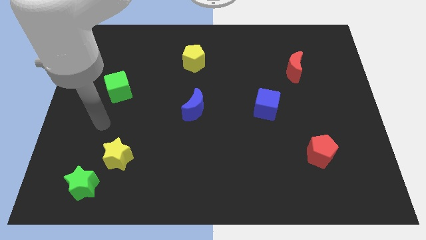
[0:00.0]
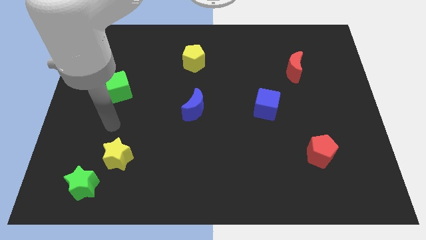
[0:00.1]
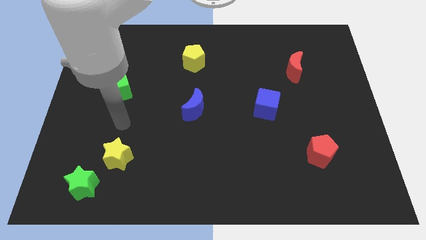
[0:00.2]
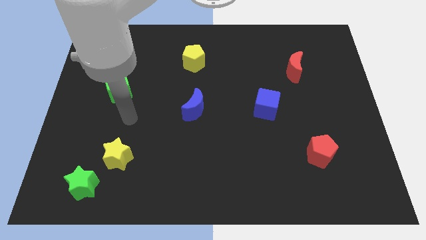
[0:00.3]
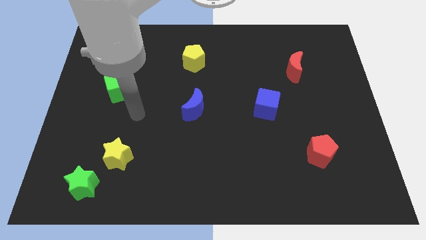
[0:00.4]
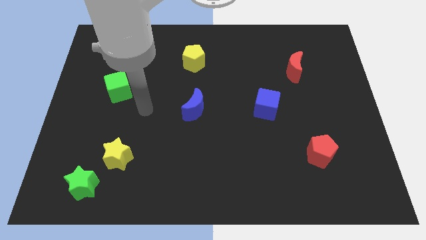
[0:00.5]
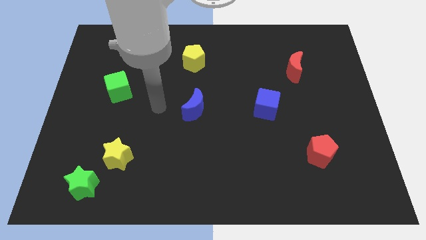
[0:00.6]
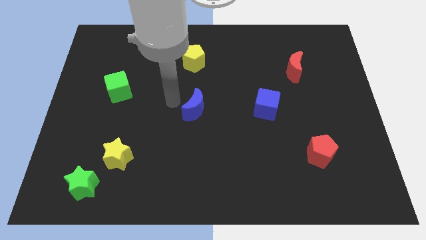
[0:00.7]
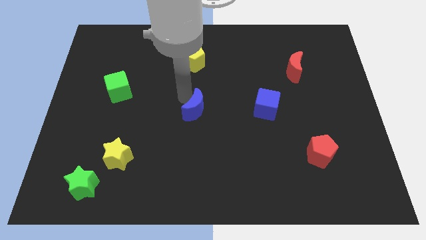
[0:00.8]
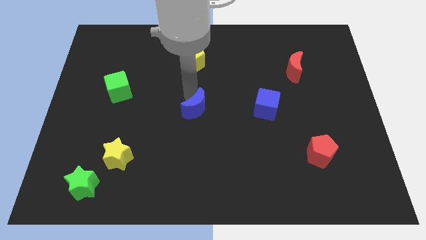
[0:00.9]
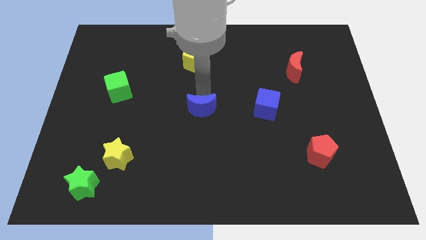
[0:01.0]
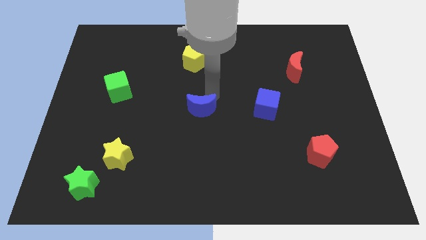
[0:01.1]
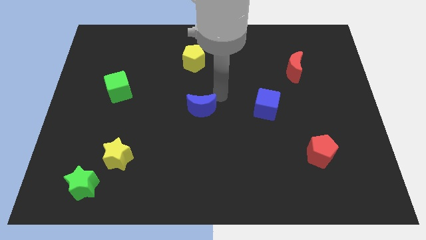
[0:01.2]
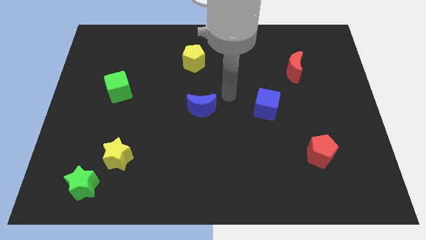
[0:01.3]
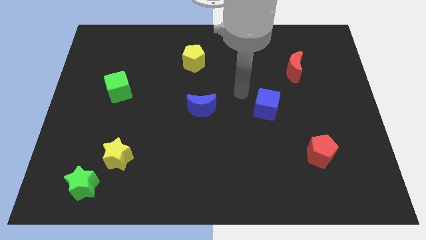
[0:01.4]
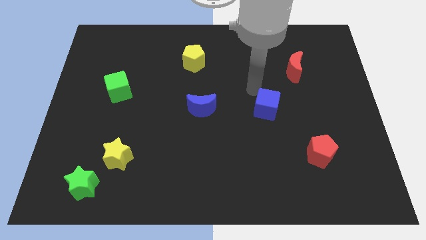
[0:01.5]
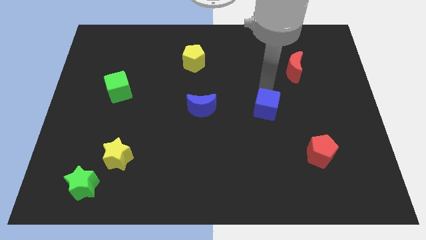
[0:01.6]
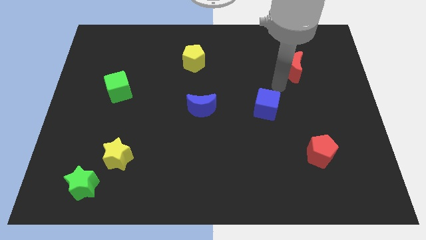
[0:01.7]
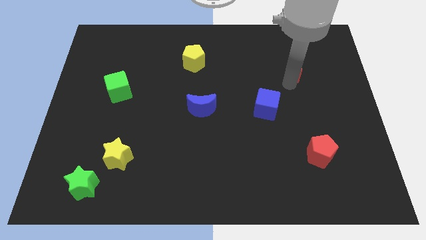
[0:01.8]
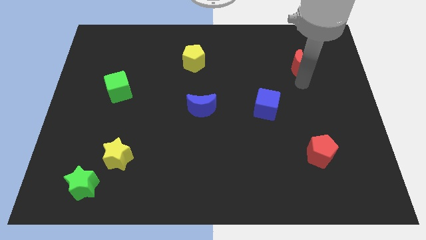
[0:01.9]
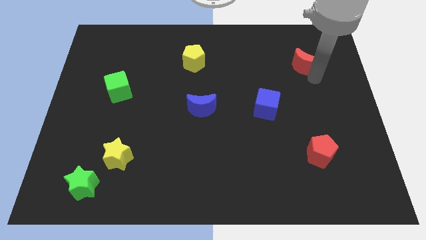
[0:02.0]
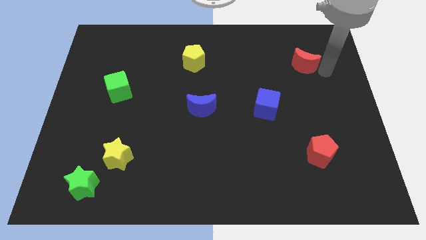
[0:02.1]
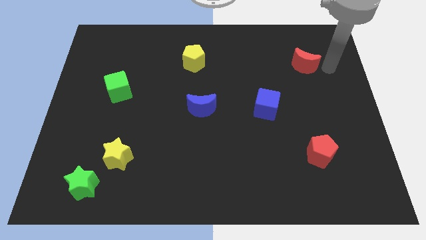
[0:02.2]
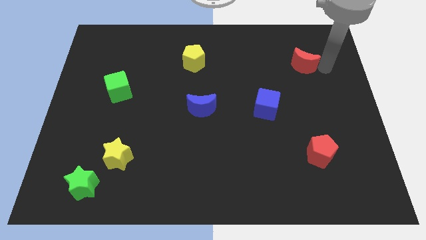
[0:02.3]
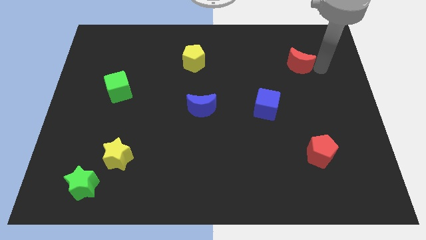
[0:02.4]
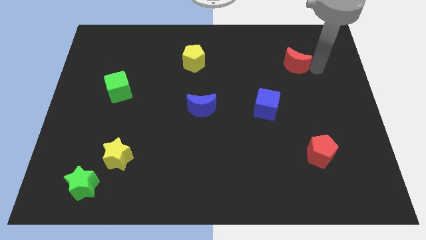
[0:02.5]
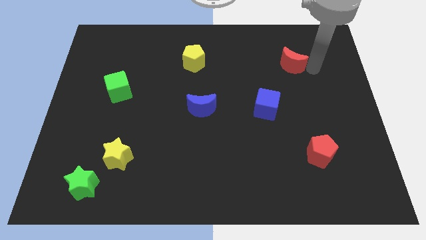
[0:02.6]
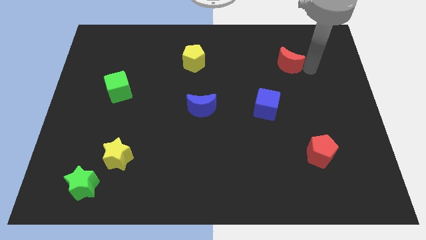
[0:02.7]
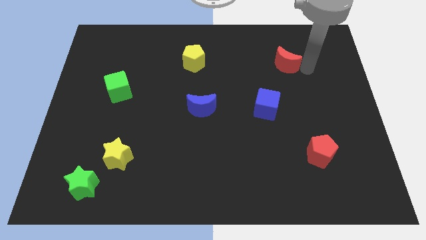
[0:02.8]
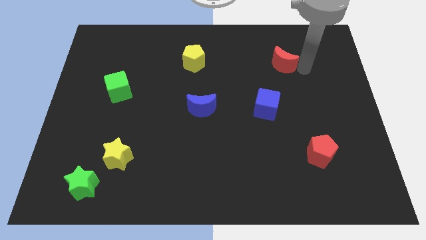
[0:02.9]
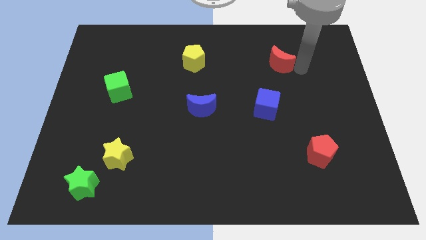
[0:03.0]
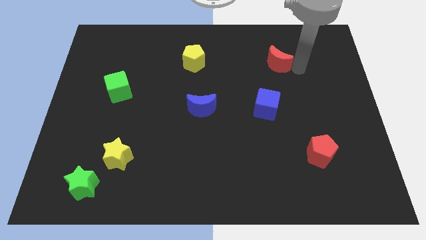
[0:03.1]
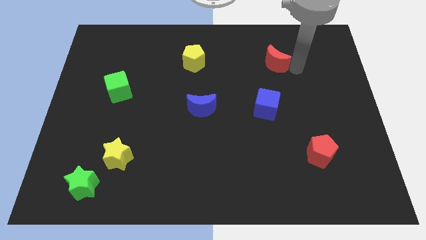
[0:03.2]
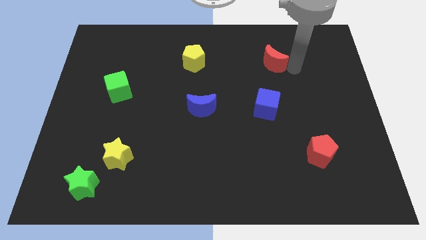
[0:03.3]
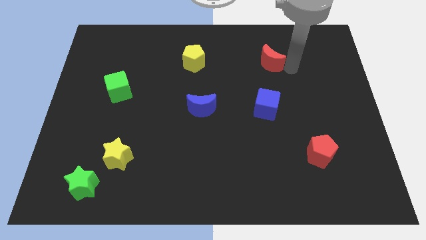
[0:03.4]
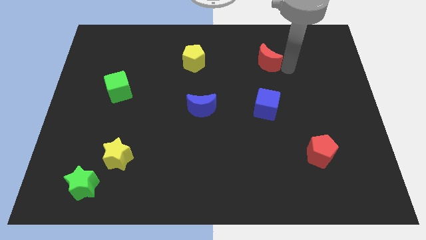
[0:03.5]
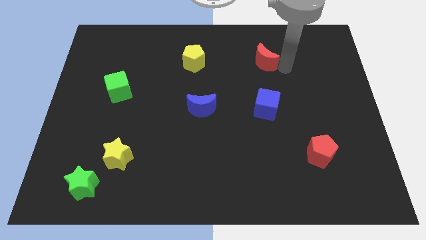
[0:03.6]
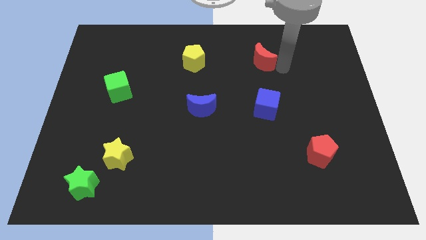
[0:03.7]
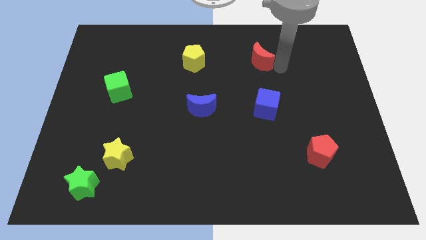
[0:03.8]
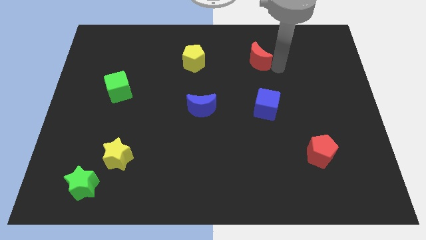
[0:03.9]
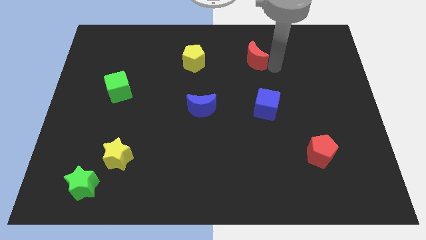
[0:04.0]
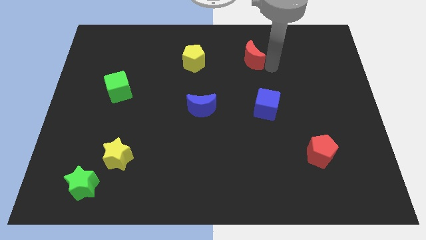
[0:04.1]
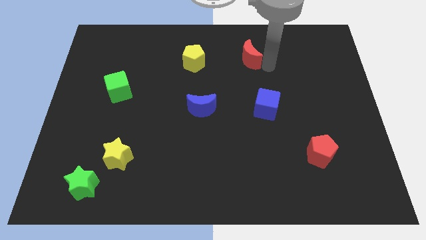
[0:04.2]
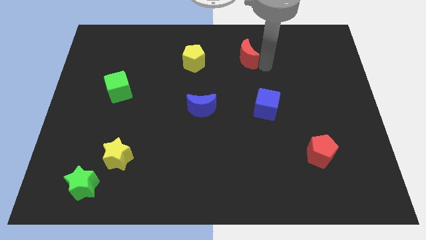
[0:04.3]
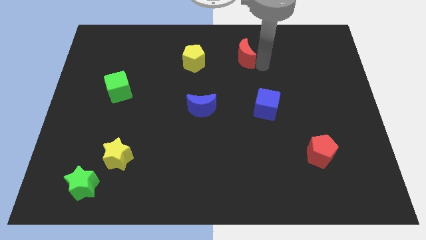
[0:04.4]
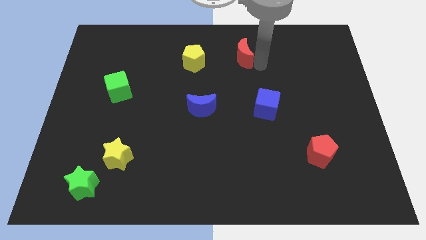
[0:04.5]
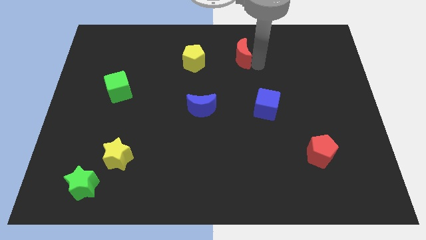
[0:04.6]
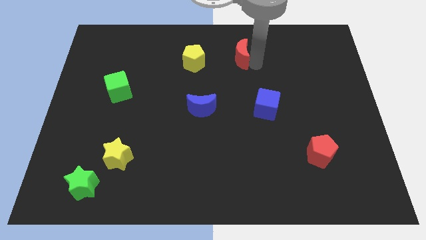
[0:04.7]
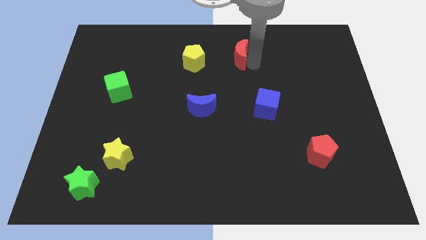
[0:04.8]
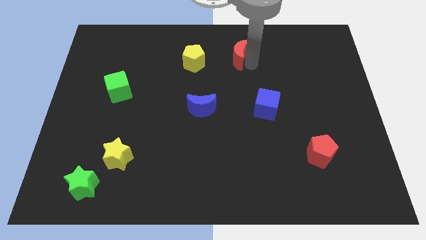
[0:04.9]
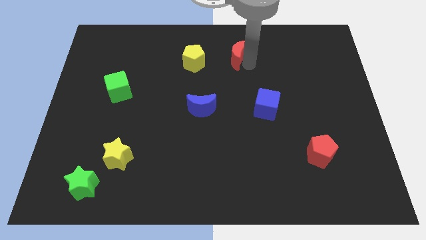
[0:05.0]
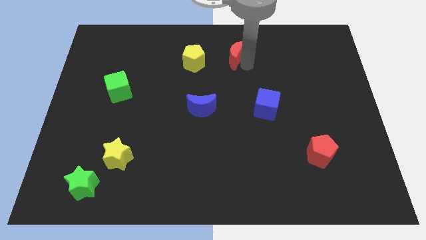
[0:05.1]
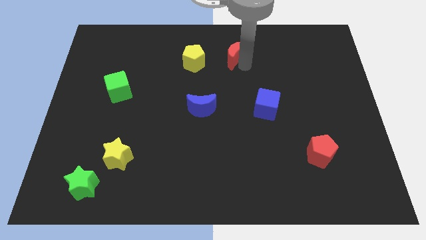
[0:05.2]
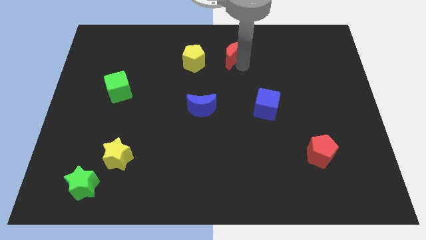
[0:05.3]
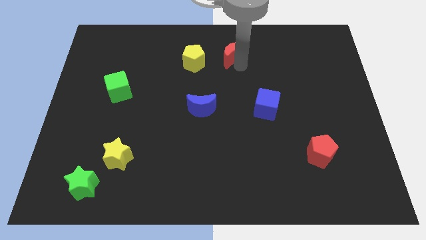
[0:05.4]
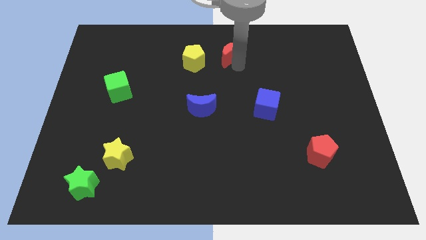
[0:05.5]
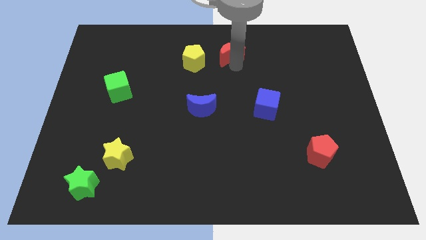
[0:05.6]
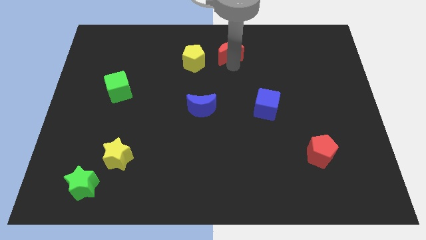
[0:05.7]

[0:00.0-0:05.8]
move the red moon to the top
